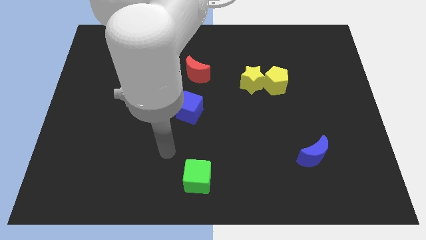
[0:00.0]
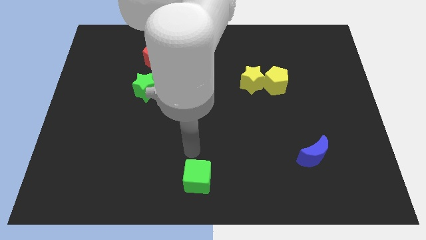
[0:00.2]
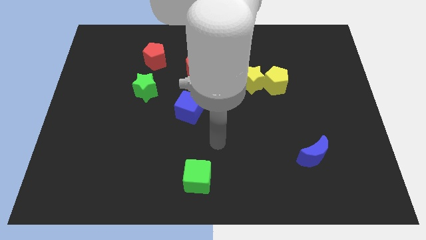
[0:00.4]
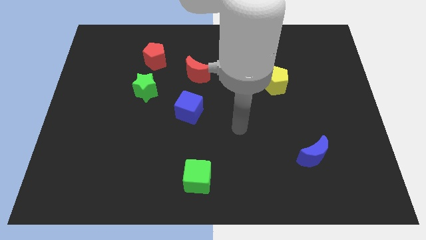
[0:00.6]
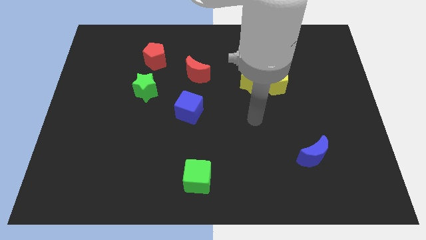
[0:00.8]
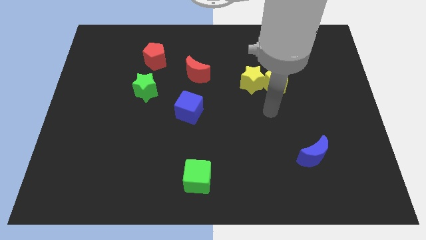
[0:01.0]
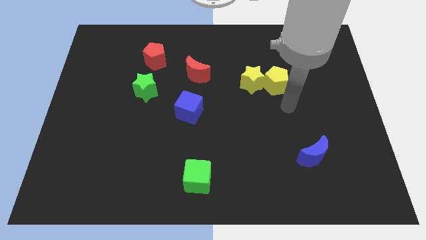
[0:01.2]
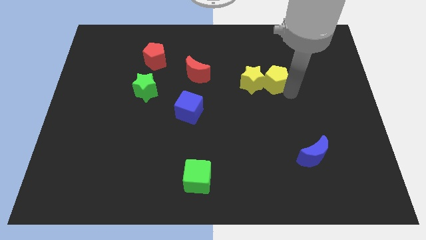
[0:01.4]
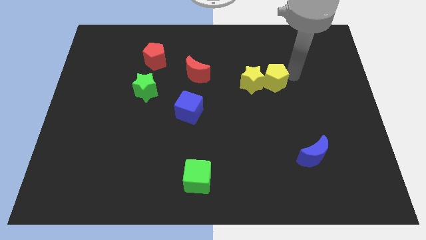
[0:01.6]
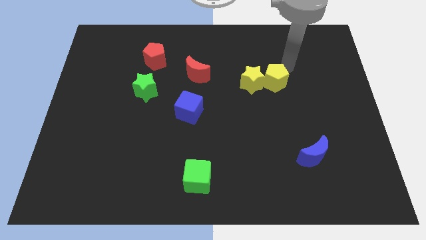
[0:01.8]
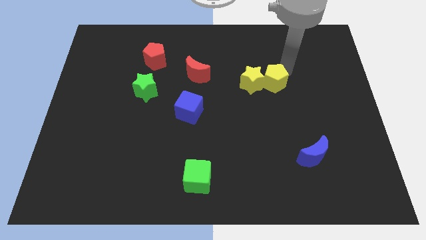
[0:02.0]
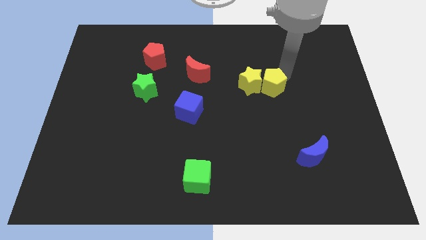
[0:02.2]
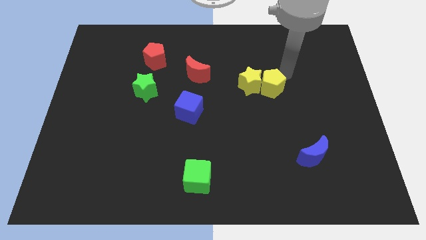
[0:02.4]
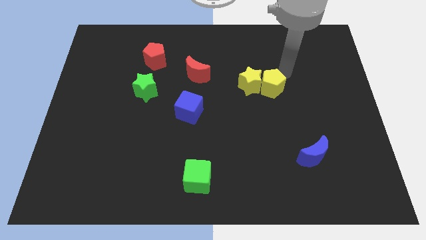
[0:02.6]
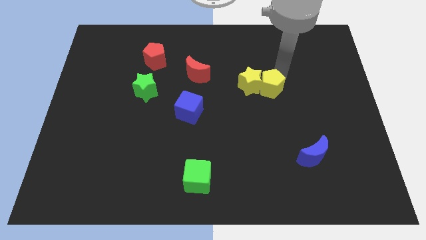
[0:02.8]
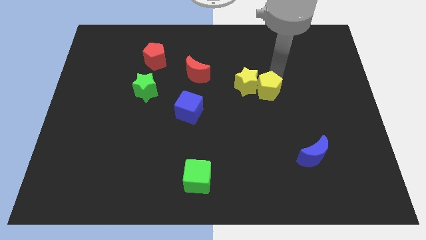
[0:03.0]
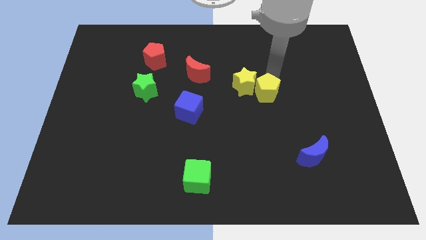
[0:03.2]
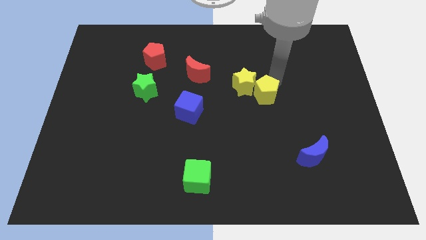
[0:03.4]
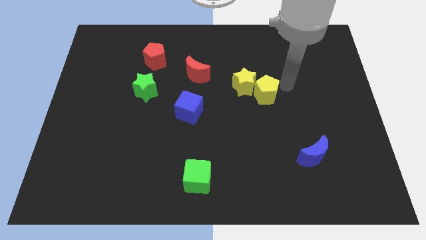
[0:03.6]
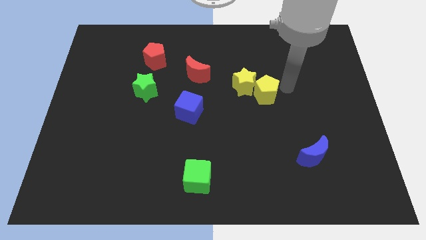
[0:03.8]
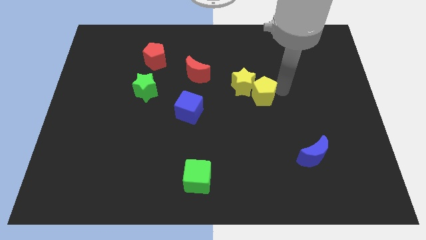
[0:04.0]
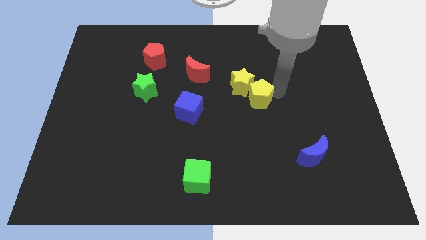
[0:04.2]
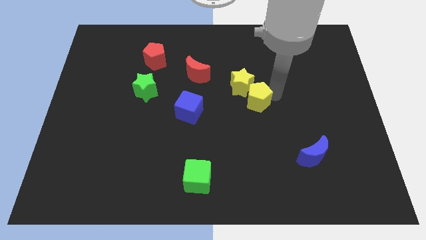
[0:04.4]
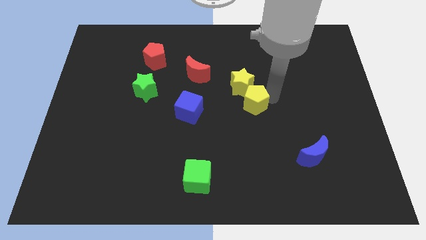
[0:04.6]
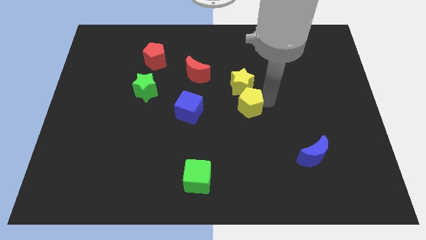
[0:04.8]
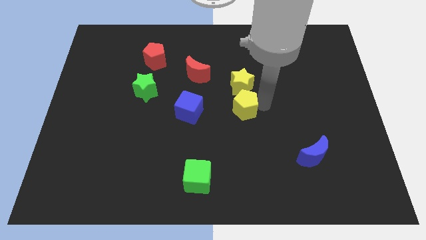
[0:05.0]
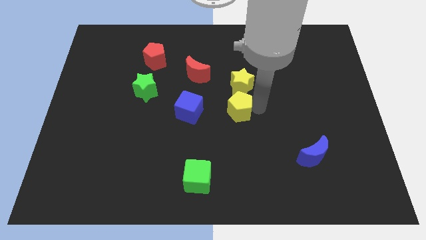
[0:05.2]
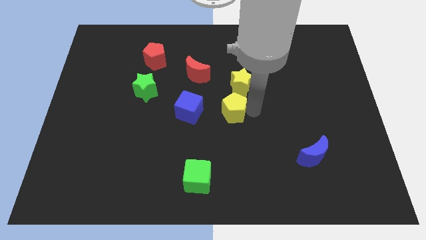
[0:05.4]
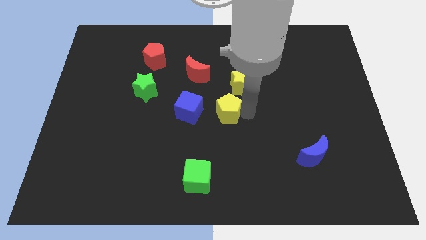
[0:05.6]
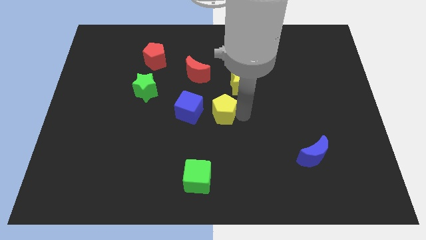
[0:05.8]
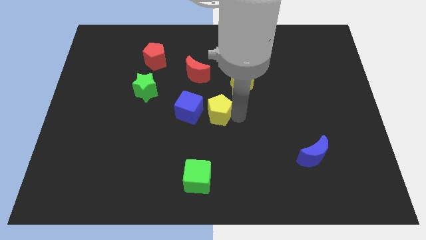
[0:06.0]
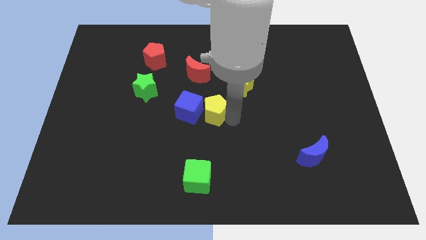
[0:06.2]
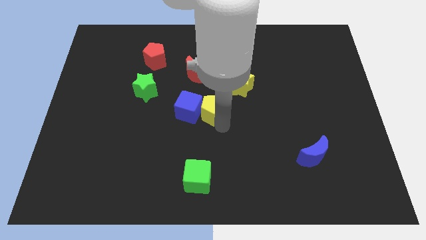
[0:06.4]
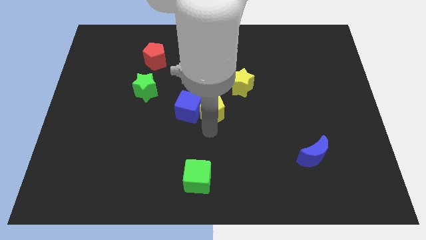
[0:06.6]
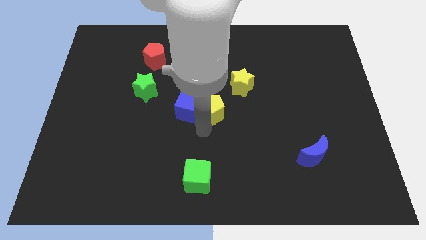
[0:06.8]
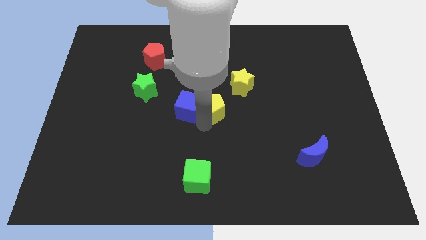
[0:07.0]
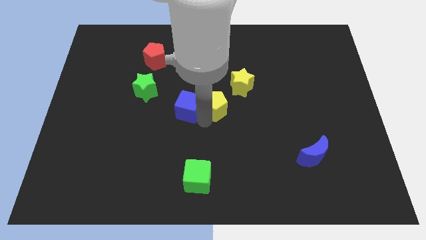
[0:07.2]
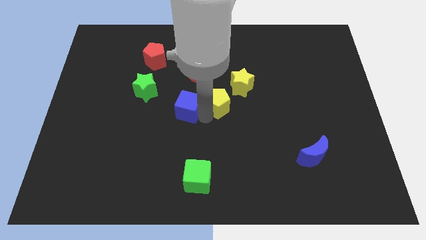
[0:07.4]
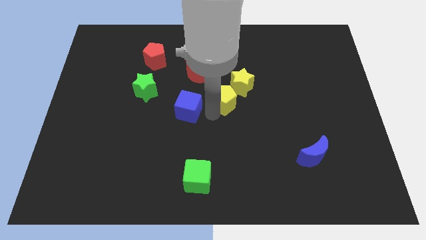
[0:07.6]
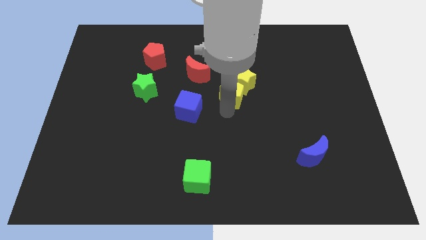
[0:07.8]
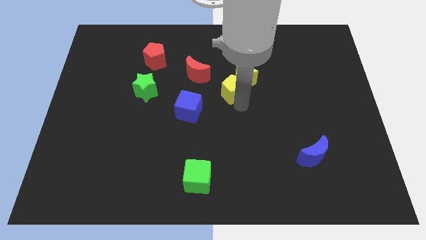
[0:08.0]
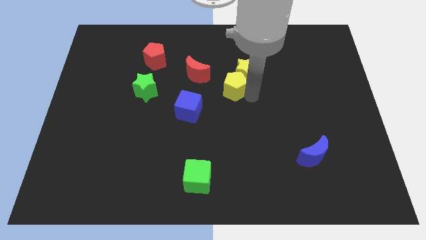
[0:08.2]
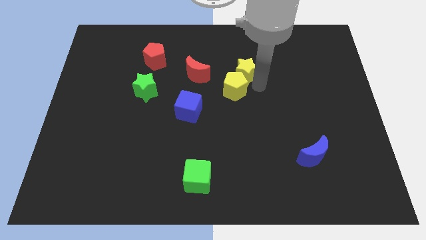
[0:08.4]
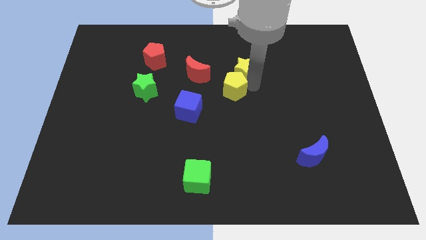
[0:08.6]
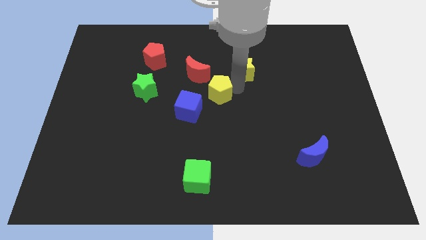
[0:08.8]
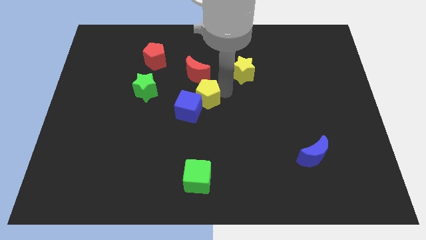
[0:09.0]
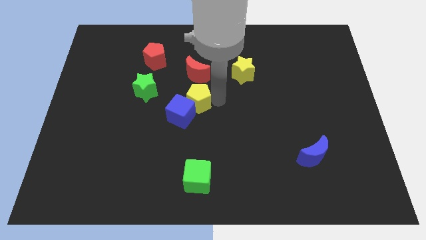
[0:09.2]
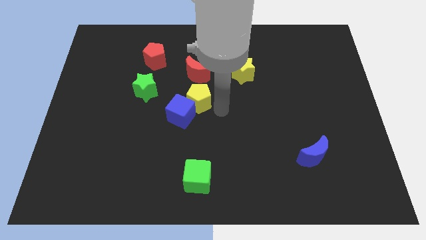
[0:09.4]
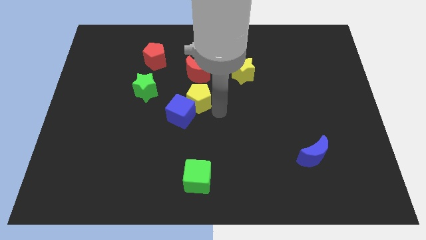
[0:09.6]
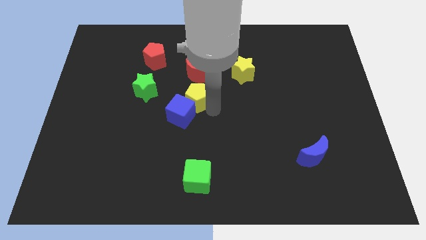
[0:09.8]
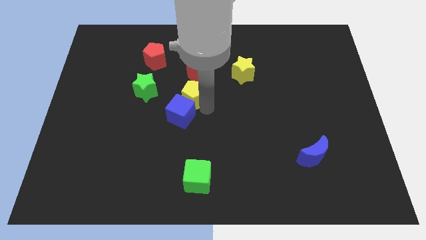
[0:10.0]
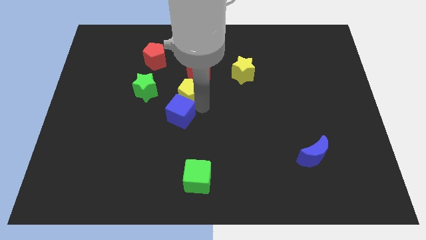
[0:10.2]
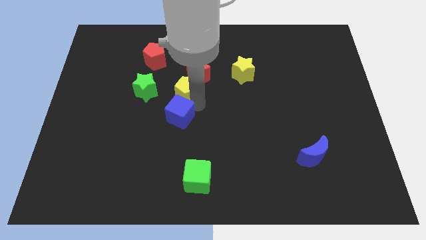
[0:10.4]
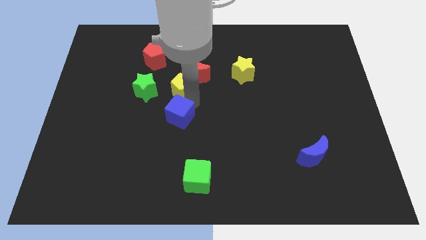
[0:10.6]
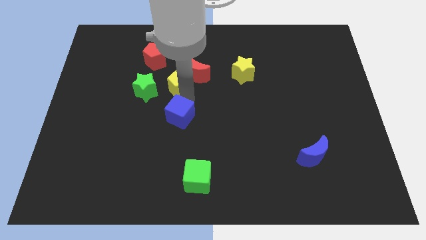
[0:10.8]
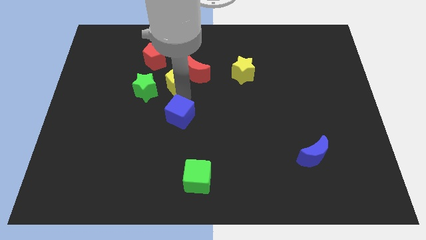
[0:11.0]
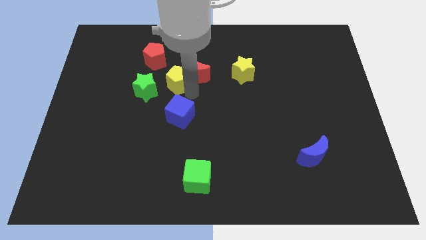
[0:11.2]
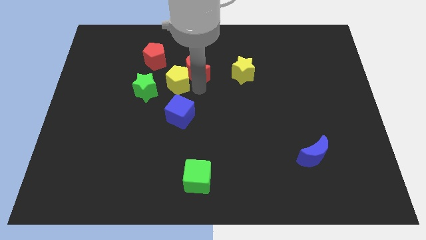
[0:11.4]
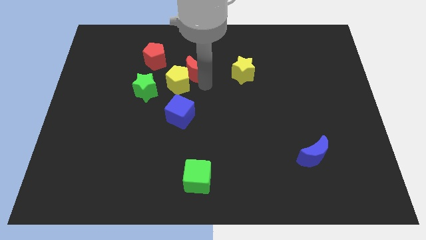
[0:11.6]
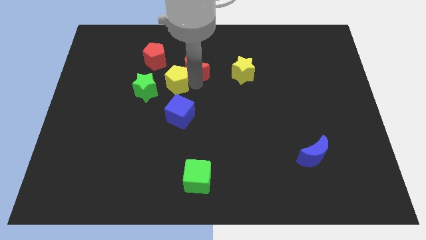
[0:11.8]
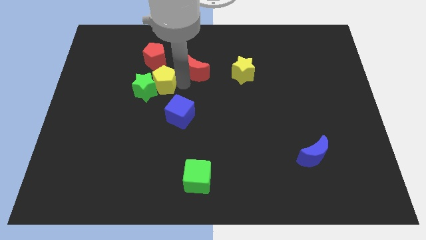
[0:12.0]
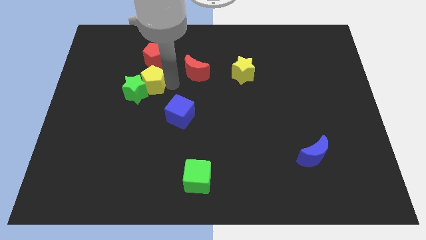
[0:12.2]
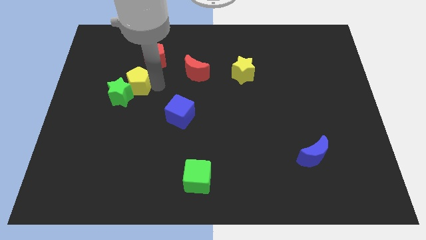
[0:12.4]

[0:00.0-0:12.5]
put the yellow pentagon to the bottom left of the red pentagon

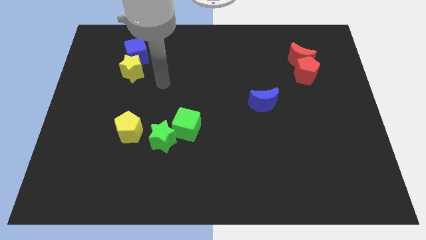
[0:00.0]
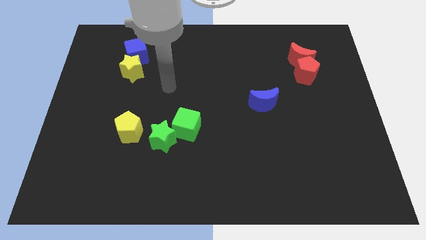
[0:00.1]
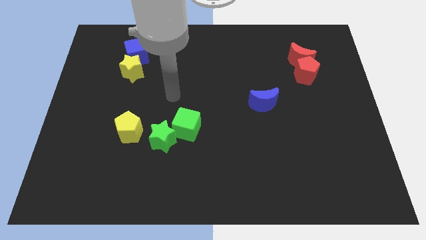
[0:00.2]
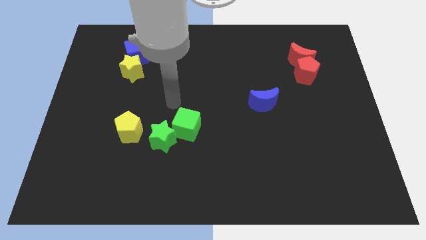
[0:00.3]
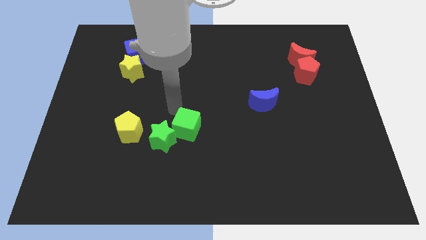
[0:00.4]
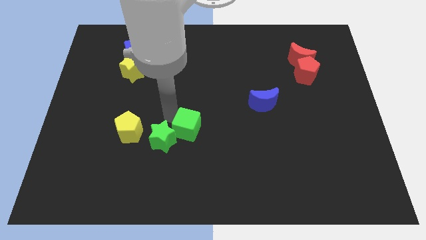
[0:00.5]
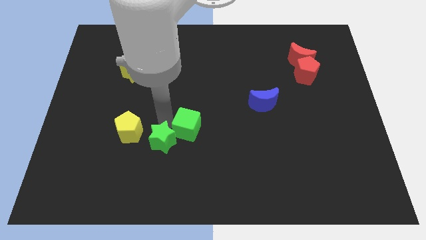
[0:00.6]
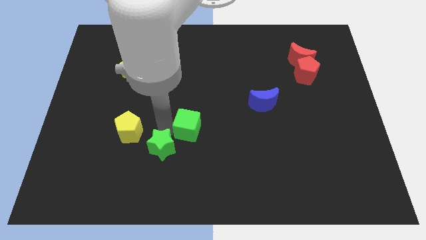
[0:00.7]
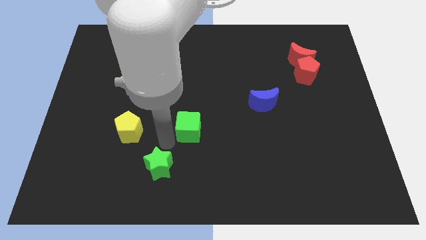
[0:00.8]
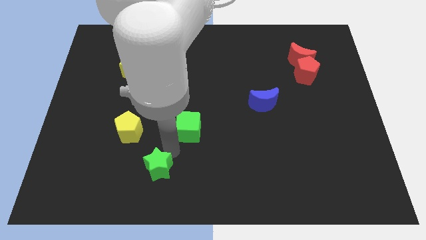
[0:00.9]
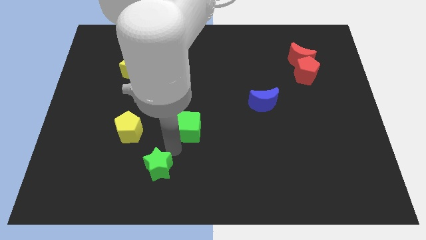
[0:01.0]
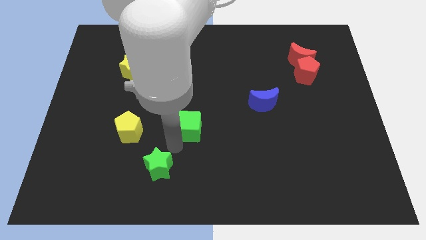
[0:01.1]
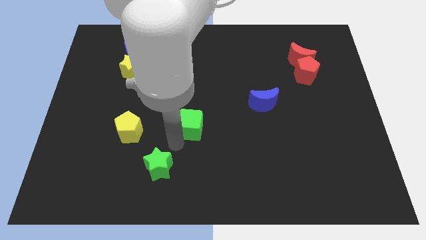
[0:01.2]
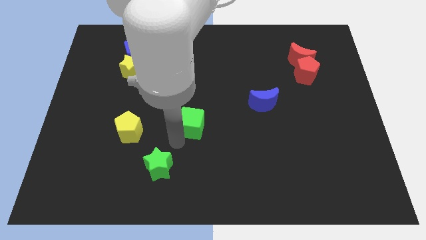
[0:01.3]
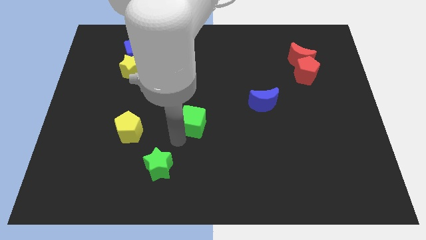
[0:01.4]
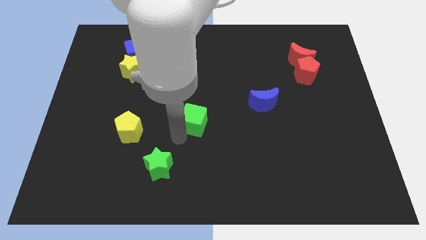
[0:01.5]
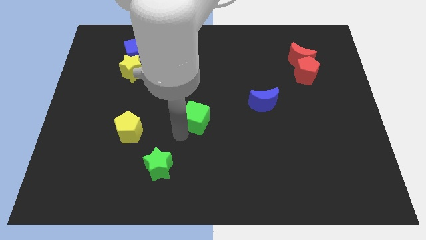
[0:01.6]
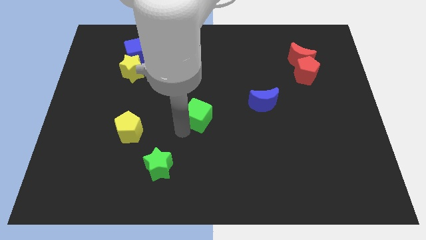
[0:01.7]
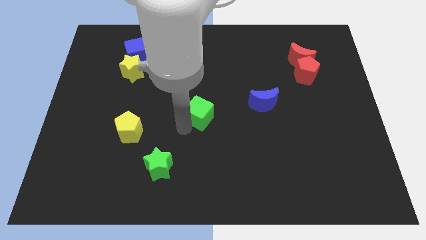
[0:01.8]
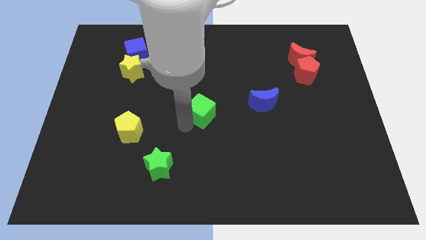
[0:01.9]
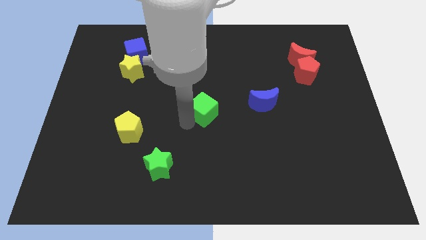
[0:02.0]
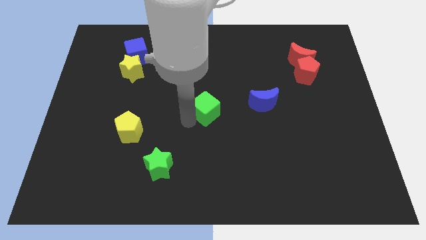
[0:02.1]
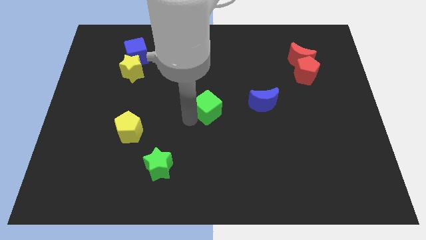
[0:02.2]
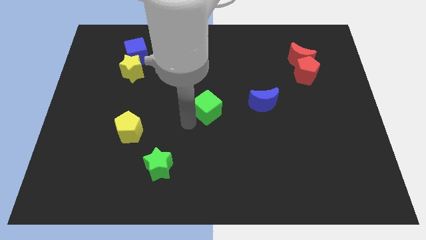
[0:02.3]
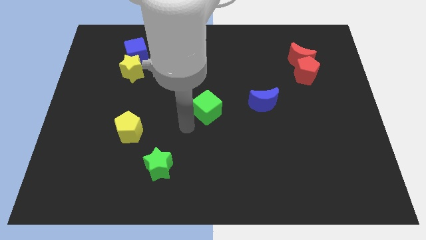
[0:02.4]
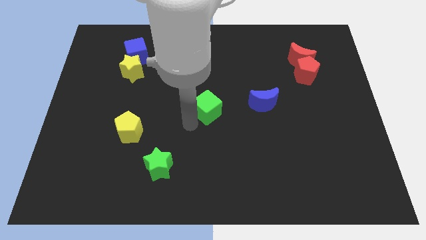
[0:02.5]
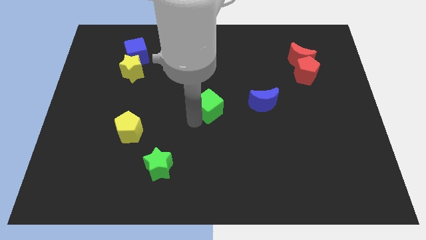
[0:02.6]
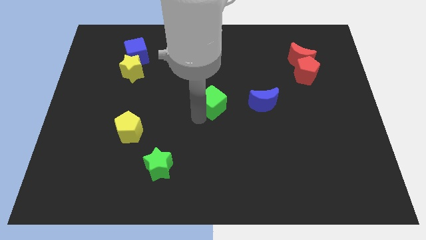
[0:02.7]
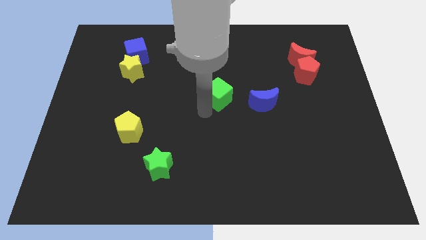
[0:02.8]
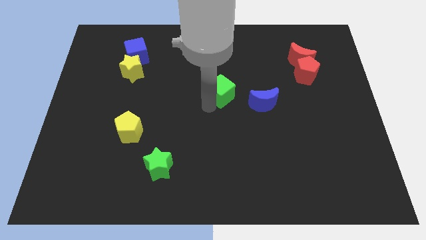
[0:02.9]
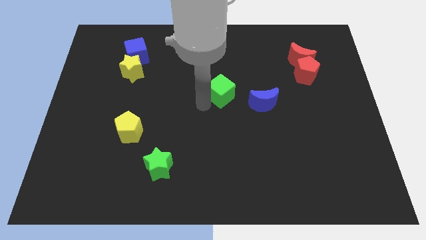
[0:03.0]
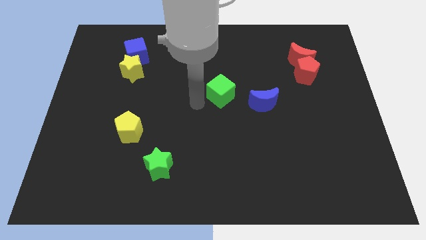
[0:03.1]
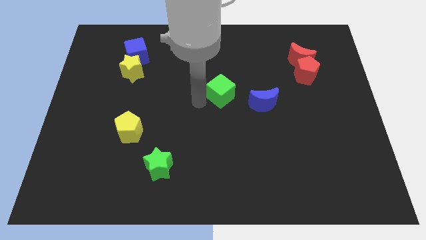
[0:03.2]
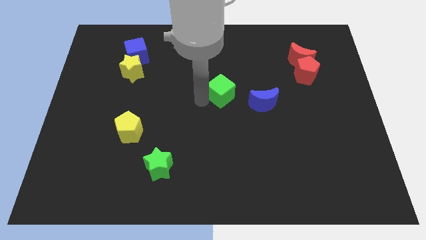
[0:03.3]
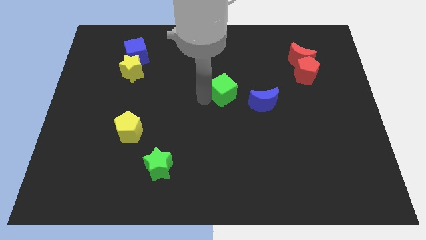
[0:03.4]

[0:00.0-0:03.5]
push the green cube to the top left side of the blue moon
